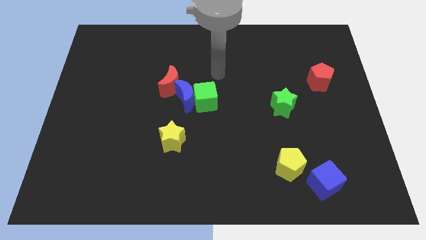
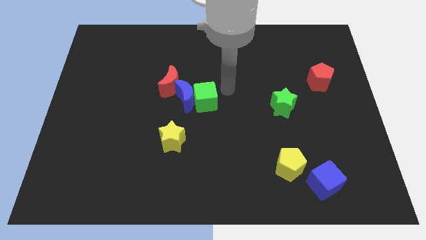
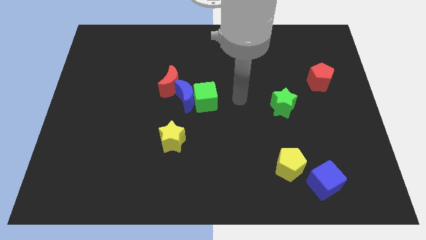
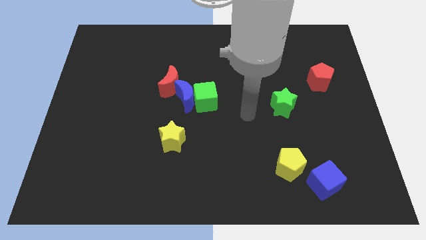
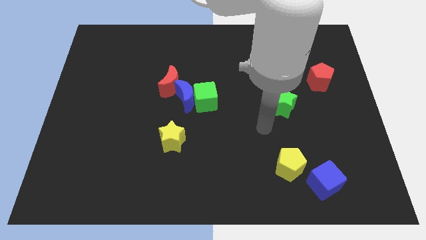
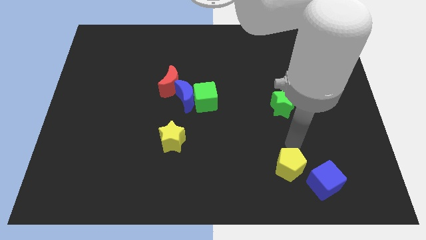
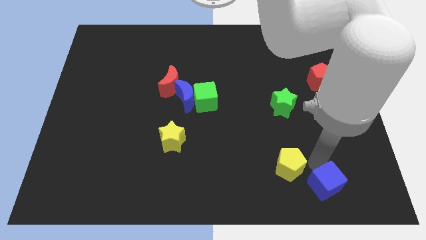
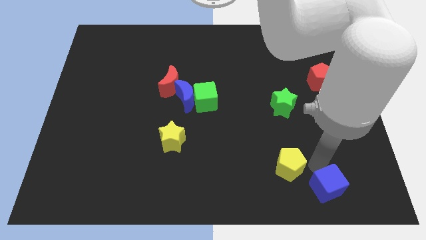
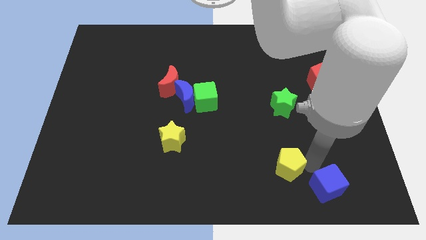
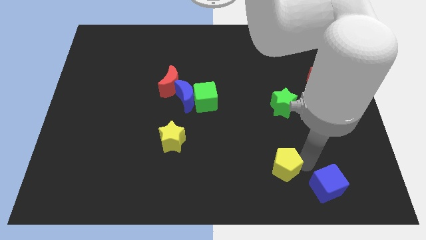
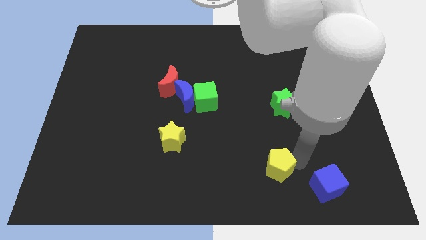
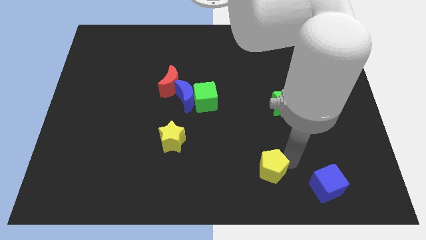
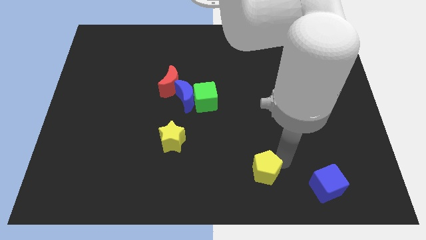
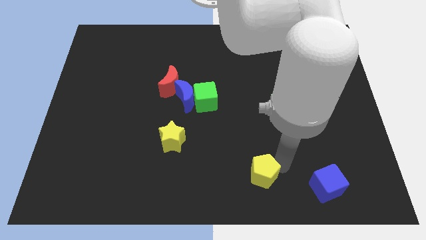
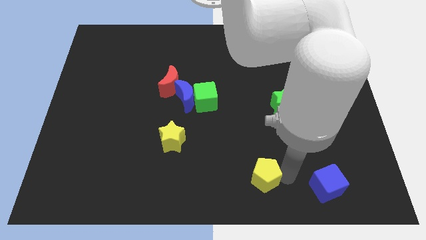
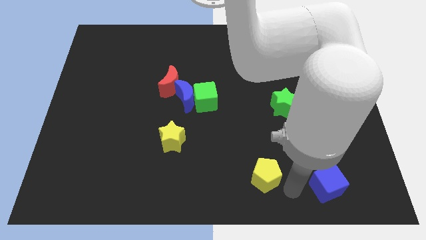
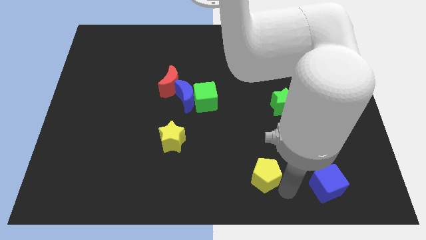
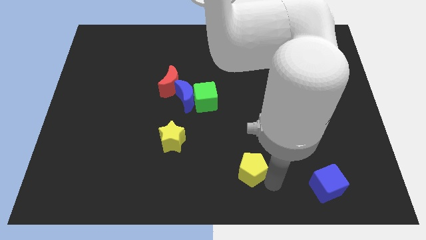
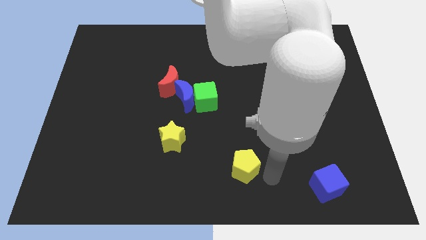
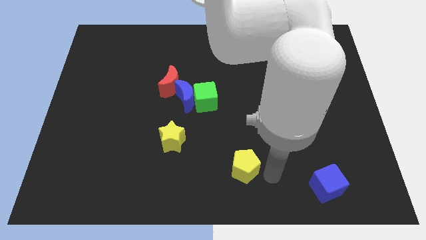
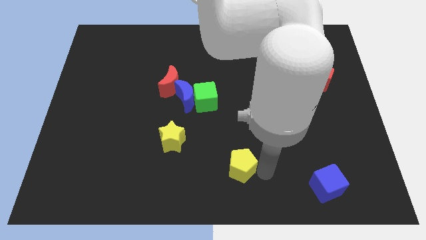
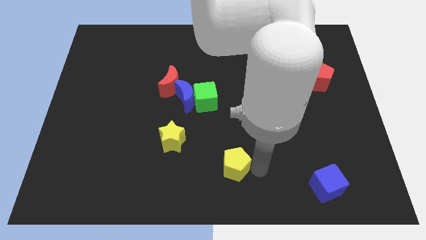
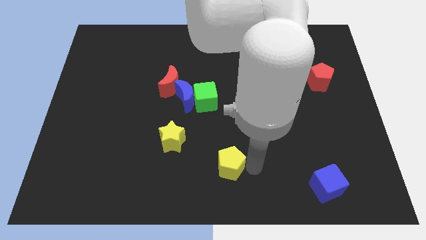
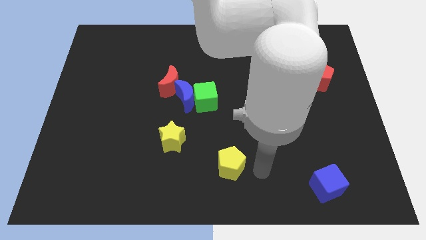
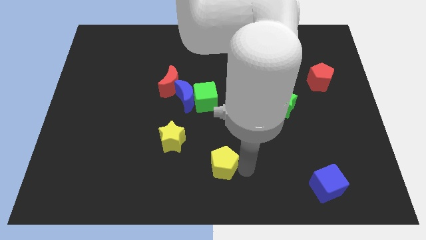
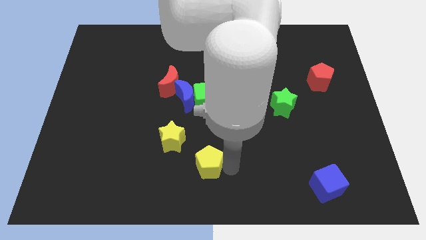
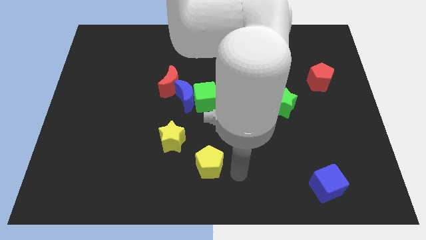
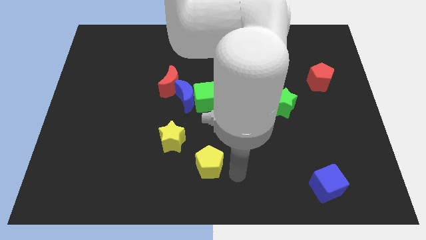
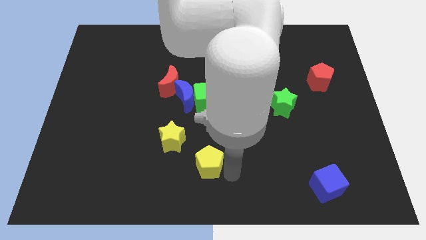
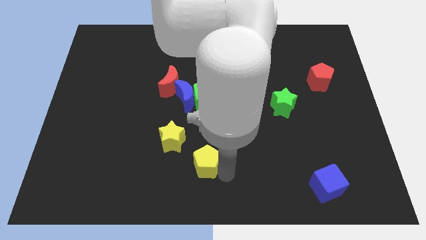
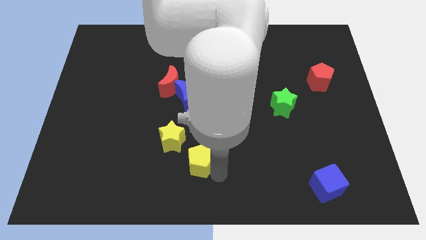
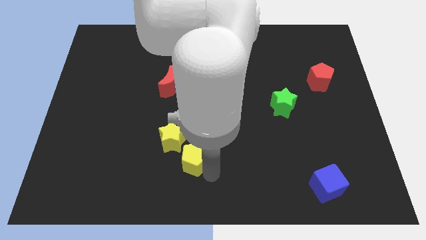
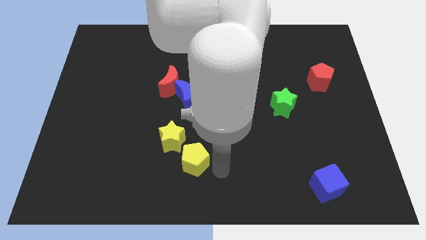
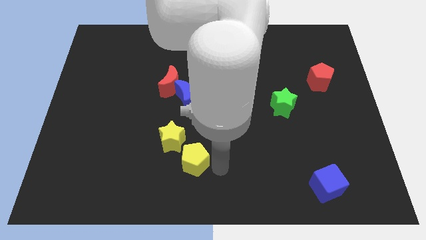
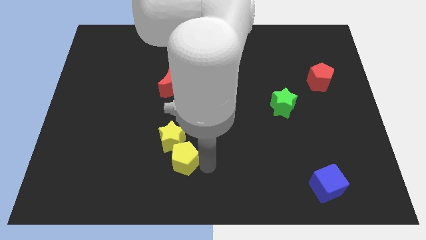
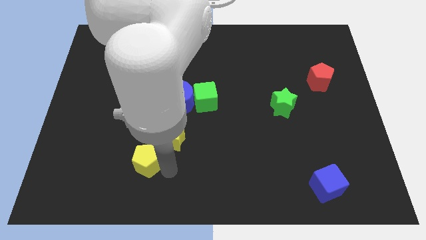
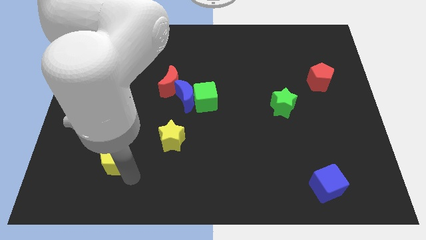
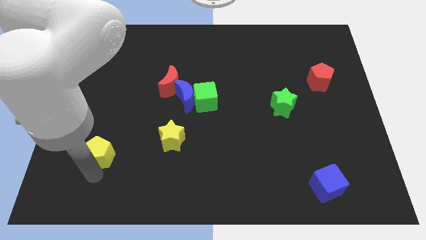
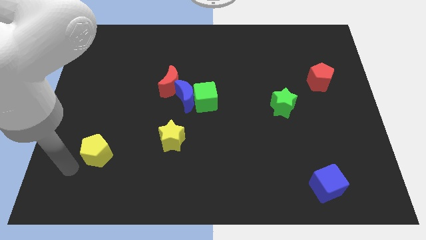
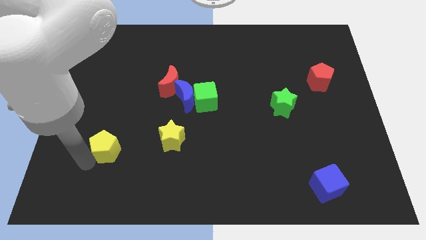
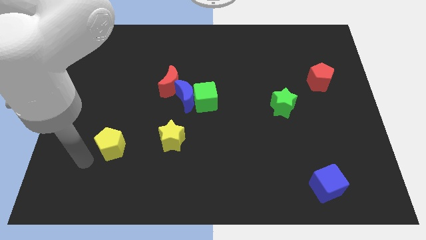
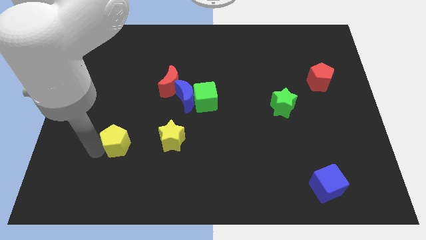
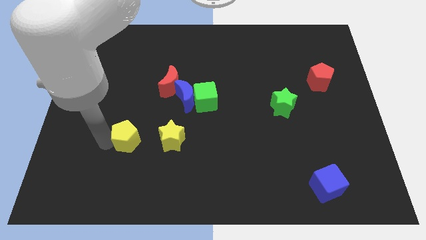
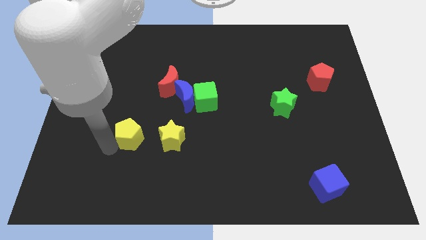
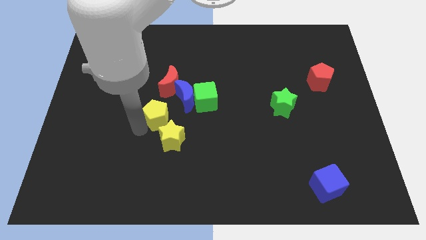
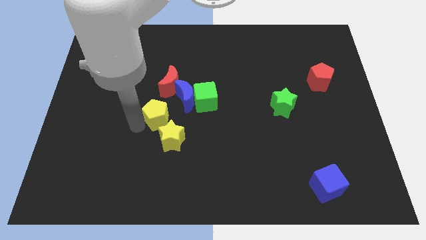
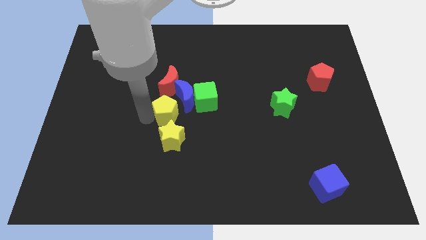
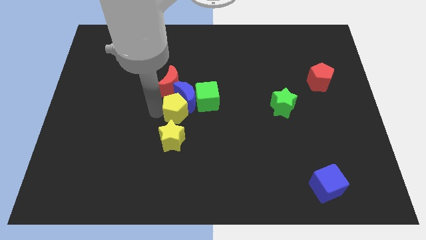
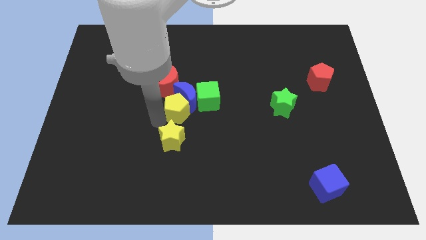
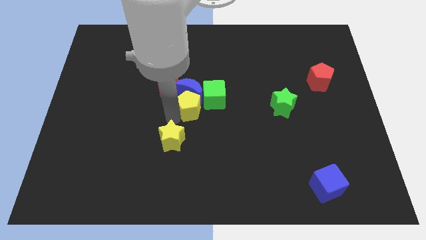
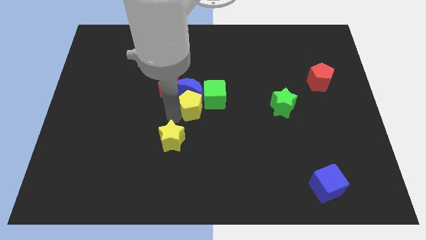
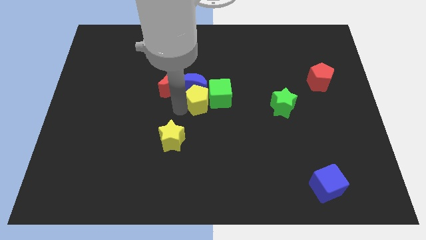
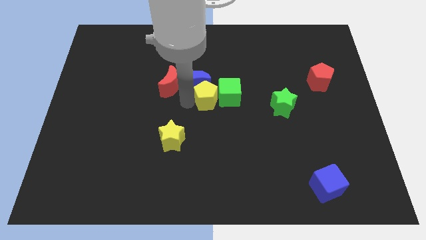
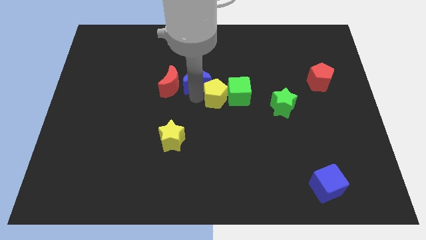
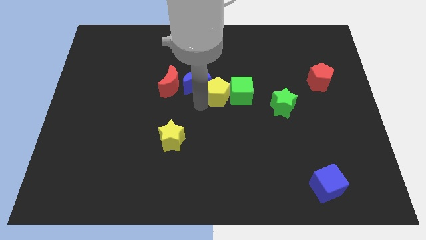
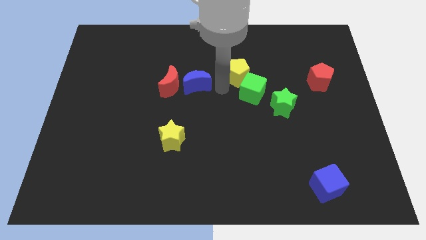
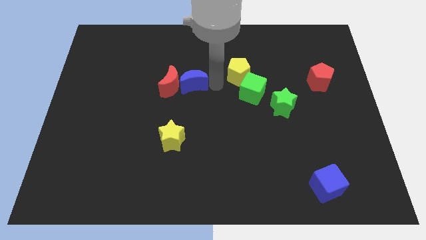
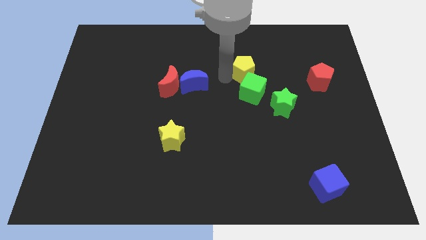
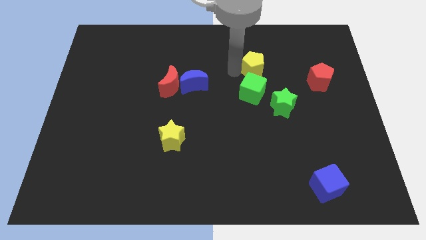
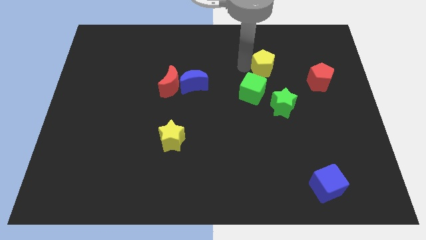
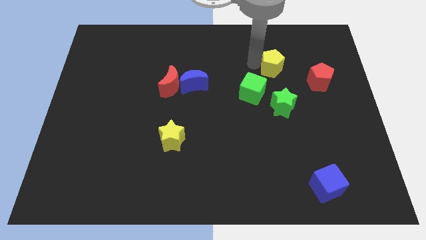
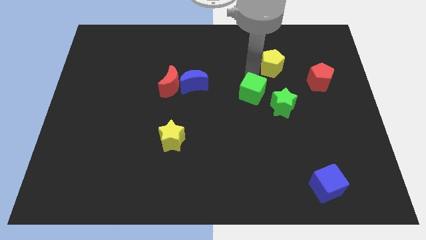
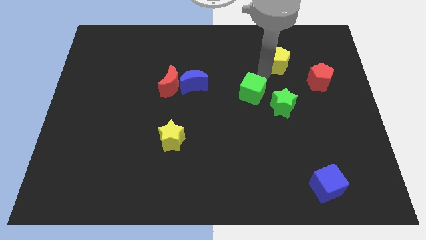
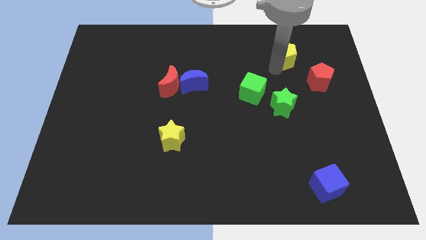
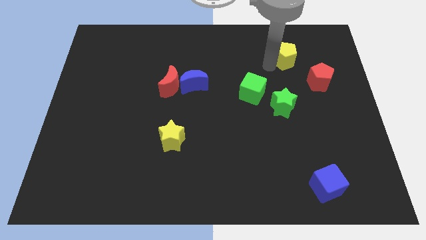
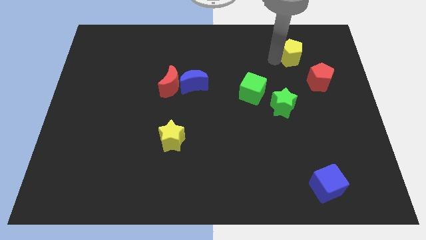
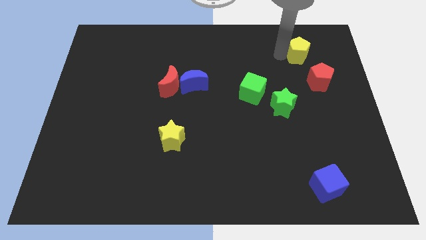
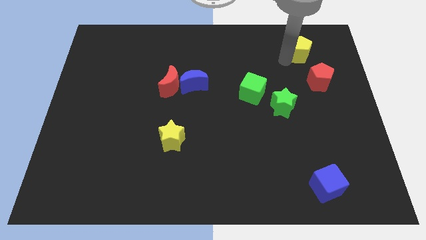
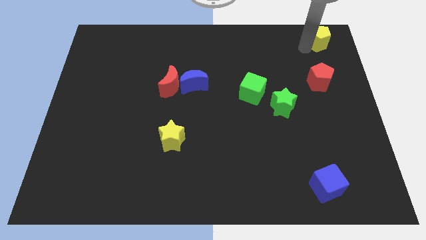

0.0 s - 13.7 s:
put the yellow pentagon to the top right of the board
